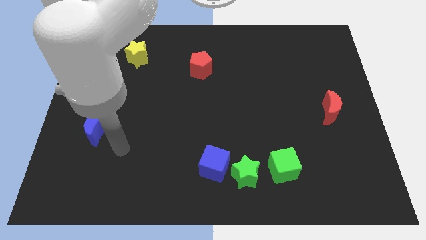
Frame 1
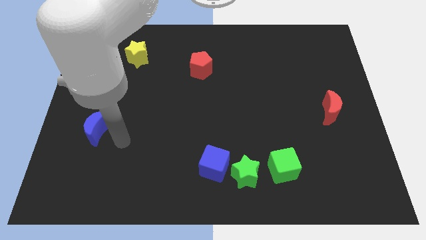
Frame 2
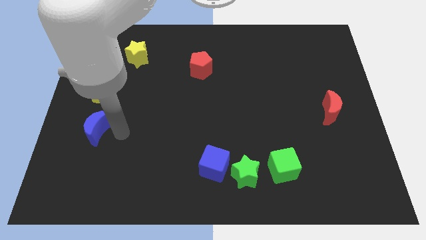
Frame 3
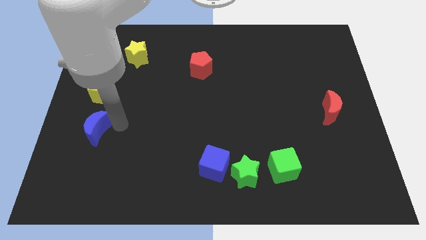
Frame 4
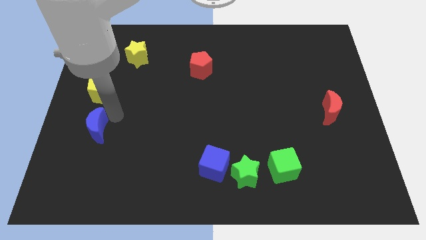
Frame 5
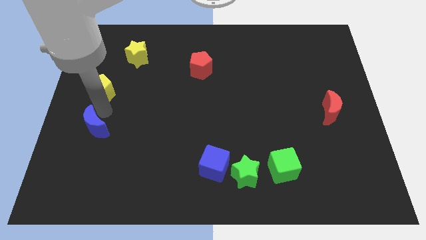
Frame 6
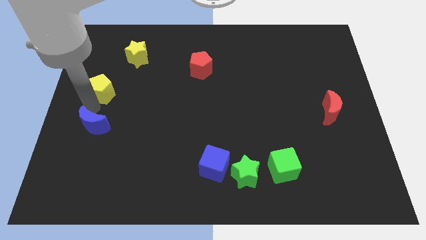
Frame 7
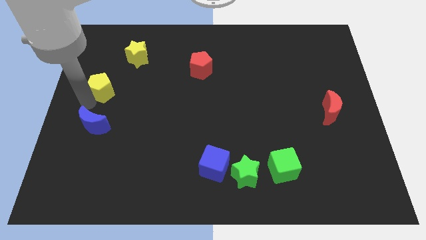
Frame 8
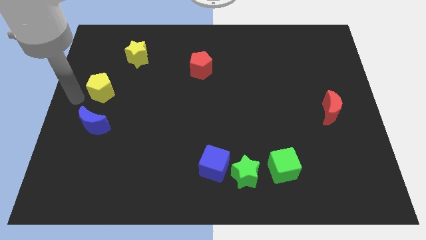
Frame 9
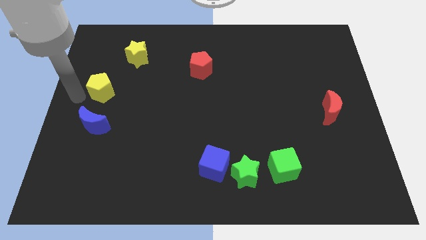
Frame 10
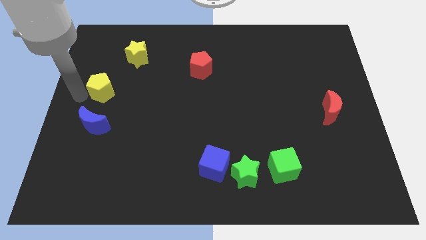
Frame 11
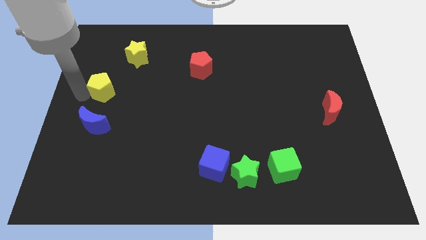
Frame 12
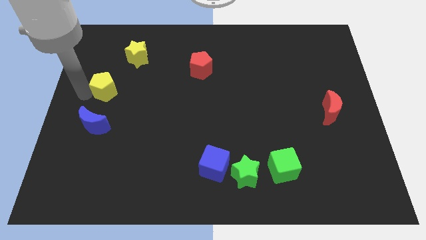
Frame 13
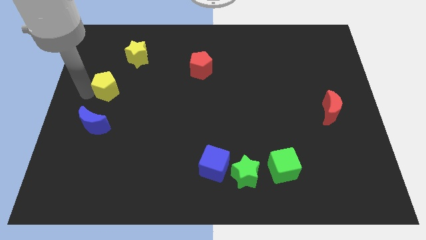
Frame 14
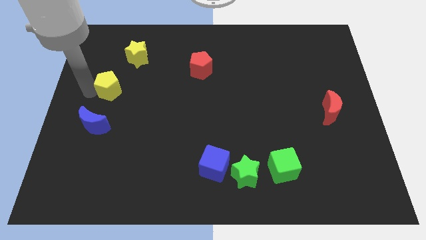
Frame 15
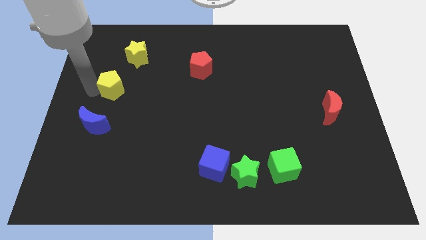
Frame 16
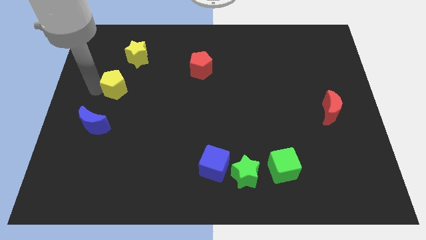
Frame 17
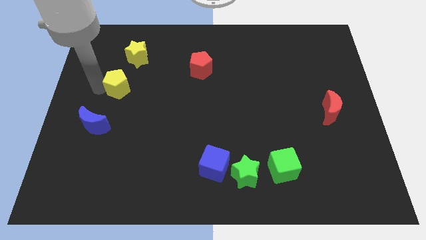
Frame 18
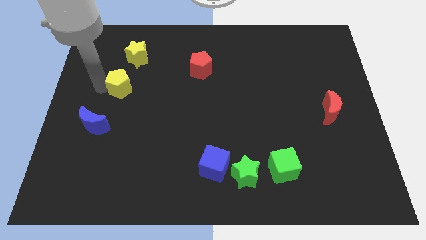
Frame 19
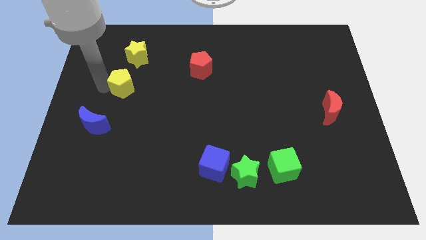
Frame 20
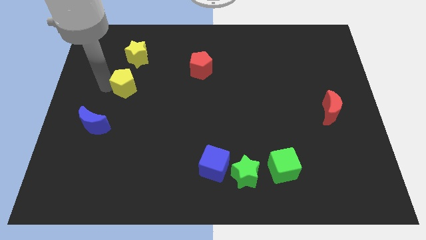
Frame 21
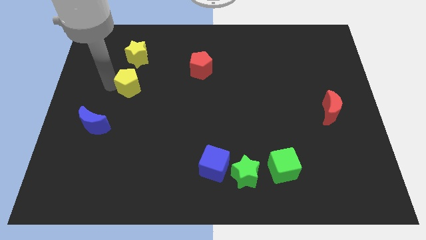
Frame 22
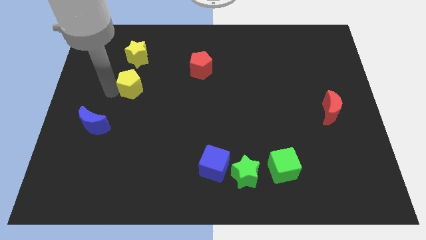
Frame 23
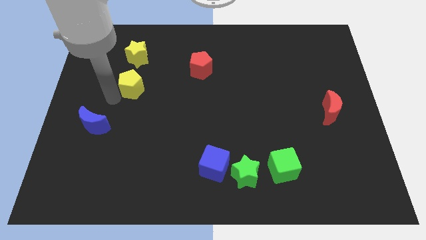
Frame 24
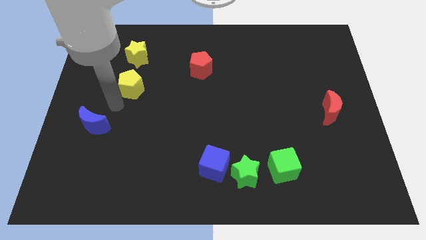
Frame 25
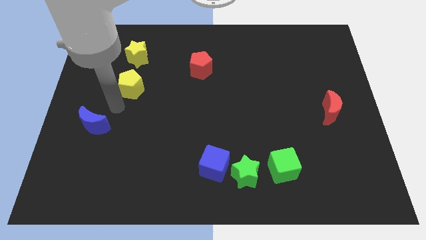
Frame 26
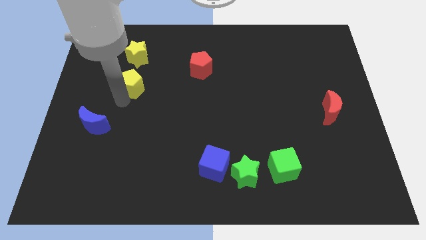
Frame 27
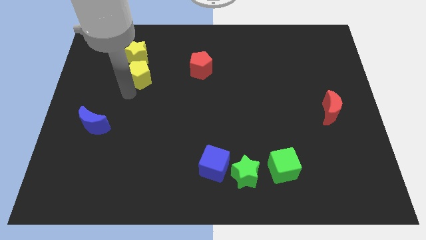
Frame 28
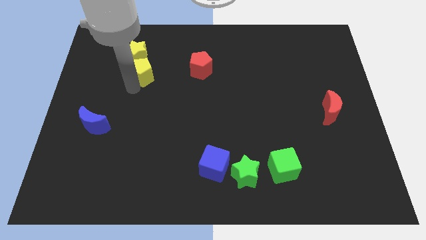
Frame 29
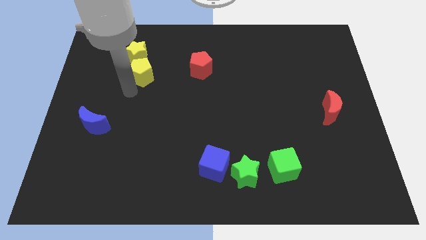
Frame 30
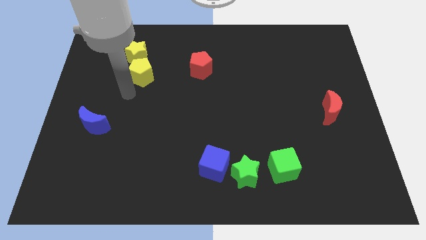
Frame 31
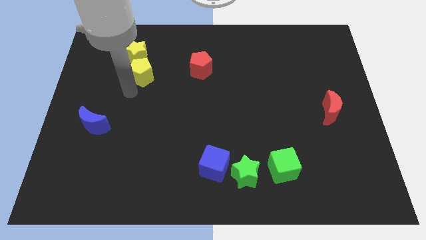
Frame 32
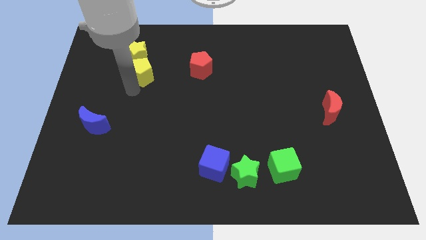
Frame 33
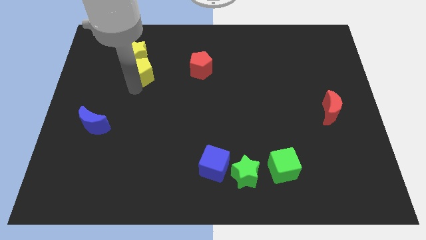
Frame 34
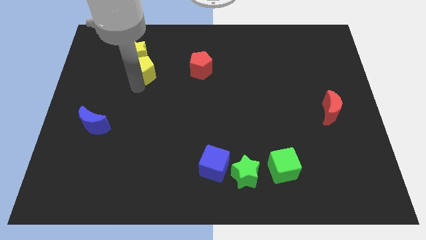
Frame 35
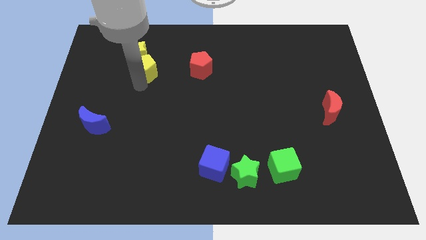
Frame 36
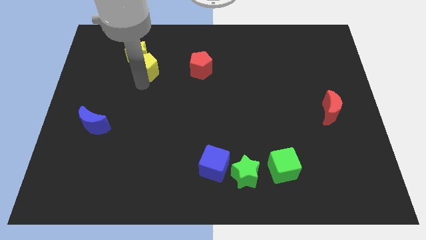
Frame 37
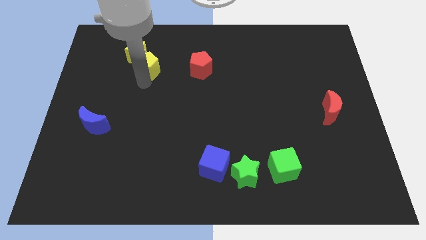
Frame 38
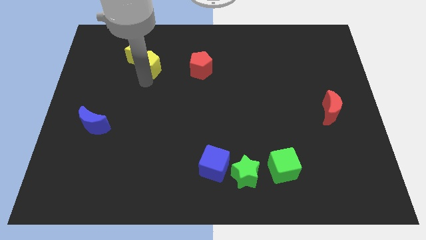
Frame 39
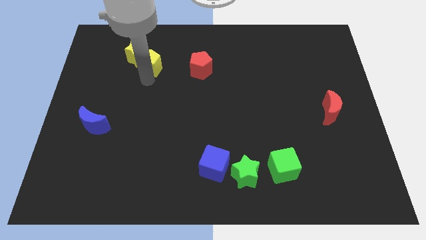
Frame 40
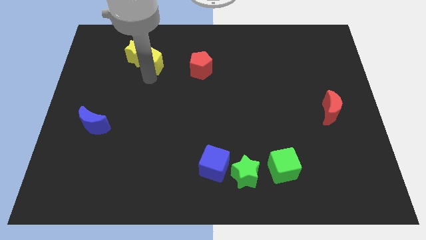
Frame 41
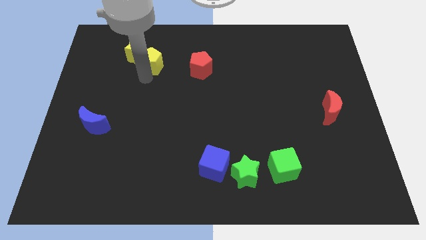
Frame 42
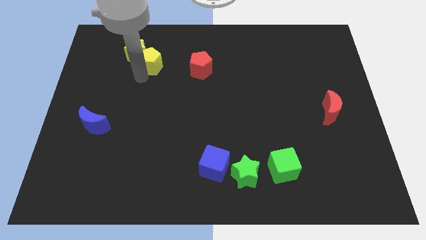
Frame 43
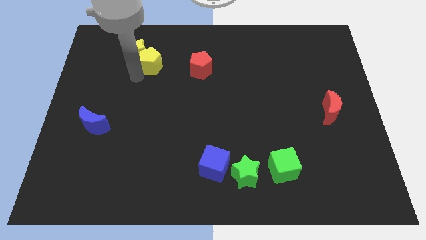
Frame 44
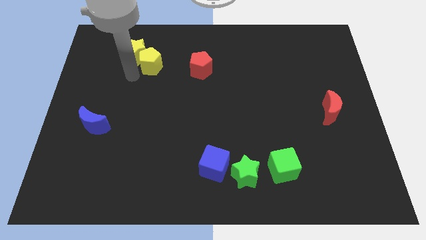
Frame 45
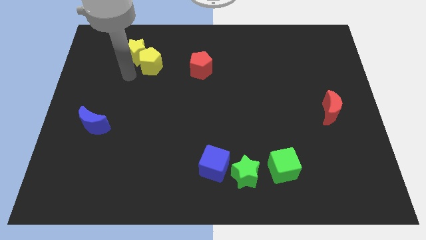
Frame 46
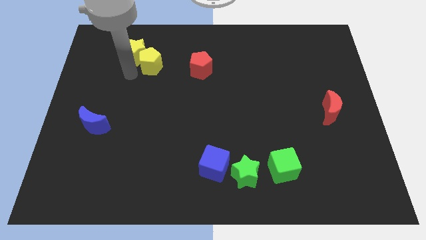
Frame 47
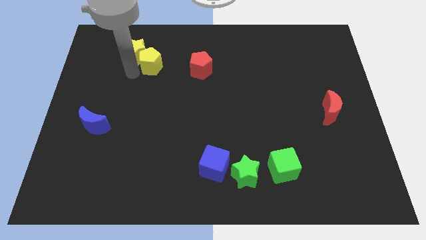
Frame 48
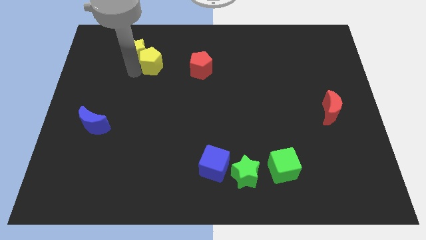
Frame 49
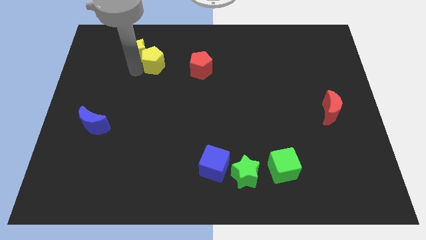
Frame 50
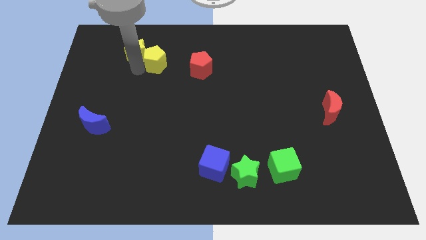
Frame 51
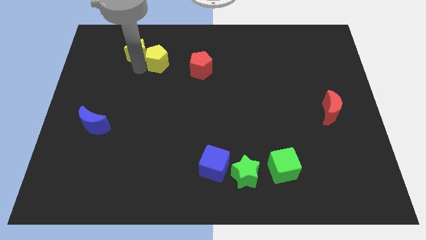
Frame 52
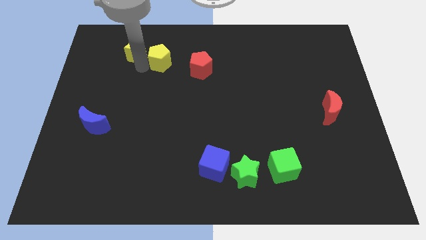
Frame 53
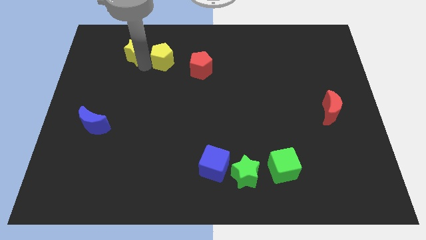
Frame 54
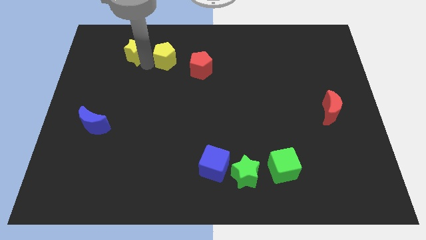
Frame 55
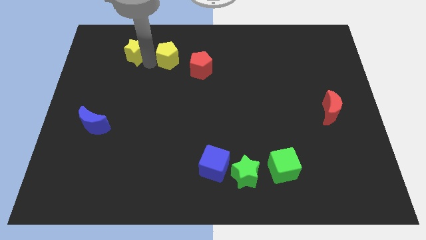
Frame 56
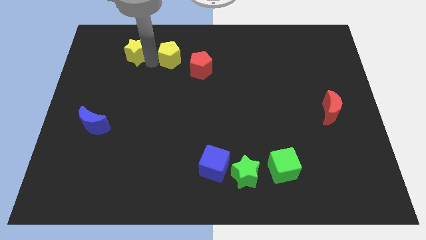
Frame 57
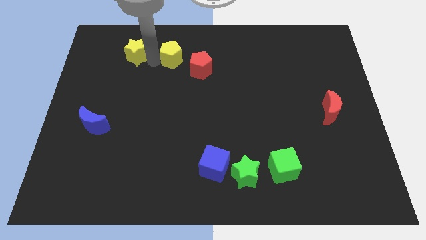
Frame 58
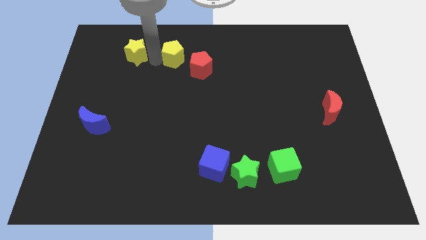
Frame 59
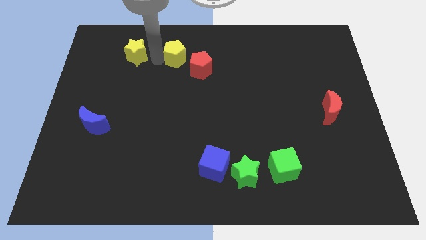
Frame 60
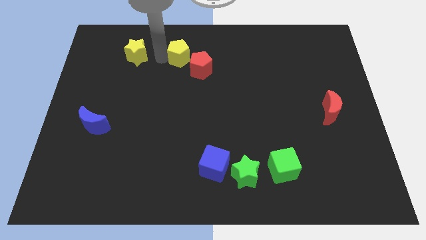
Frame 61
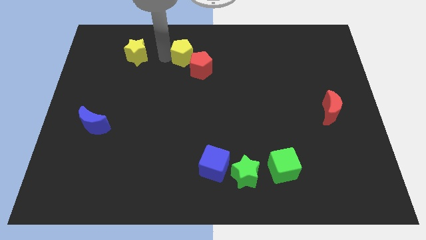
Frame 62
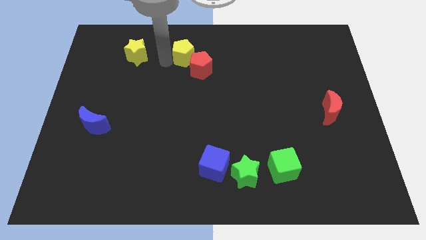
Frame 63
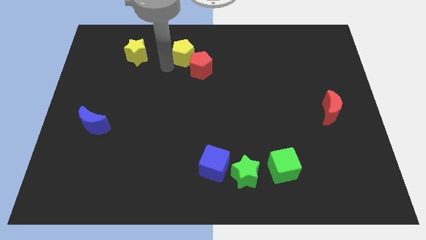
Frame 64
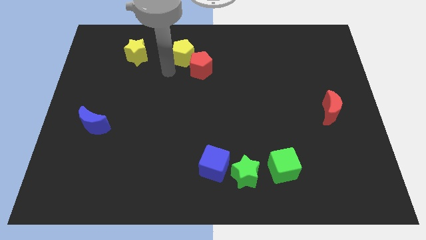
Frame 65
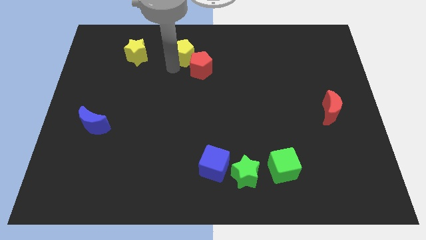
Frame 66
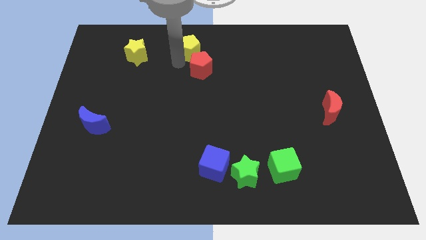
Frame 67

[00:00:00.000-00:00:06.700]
slide the yellow pentagon to the top

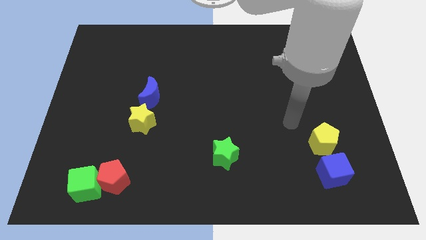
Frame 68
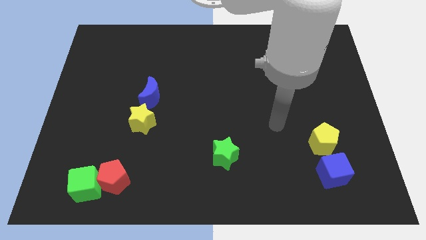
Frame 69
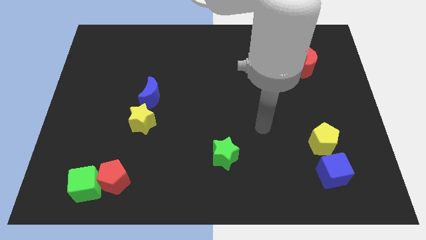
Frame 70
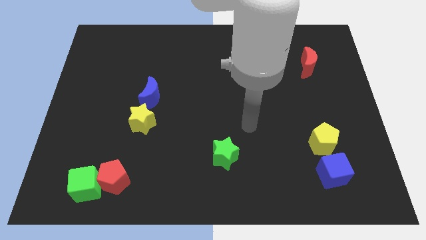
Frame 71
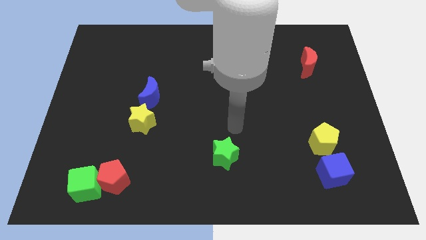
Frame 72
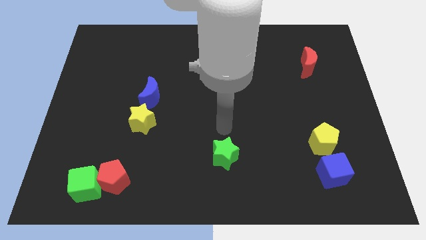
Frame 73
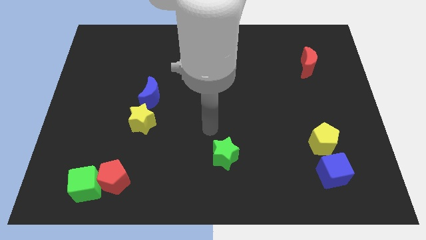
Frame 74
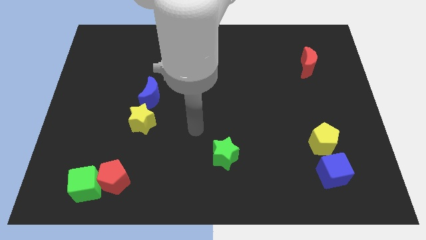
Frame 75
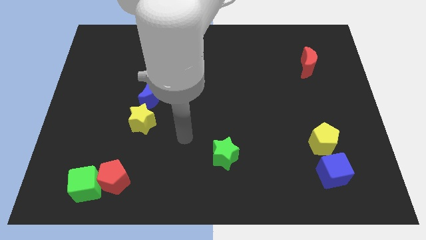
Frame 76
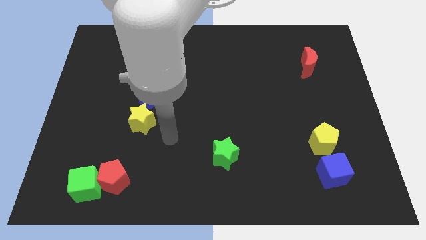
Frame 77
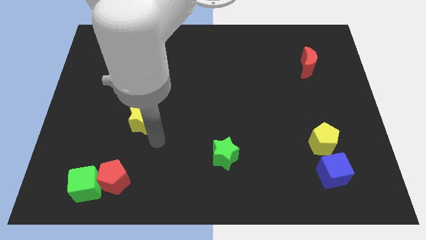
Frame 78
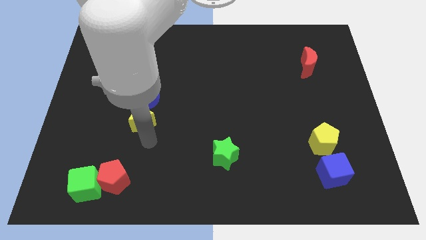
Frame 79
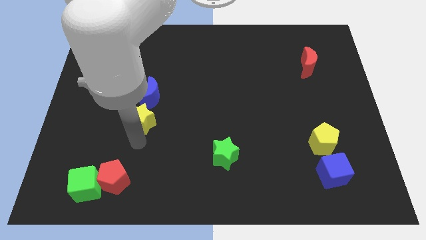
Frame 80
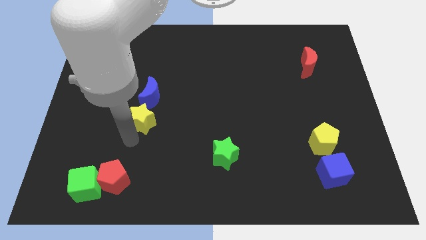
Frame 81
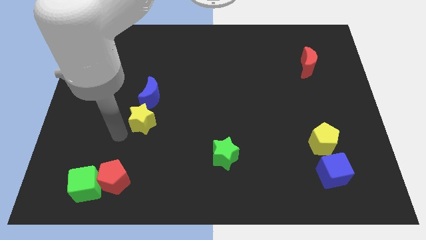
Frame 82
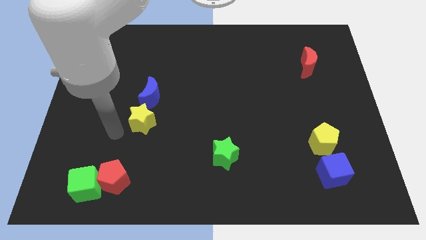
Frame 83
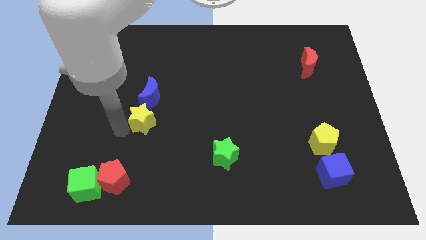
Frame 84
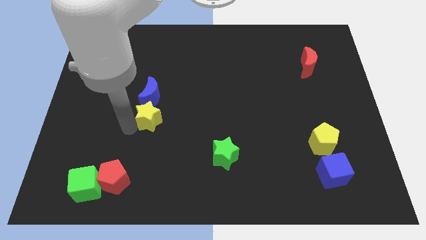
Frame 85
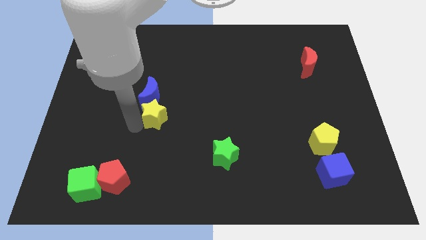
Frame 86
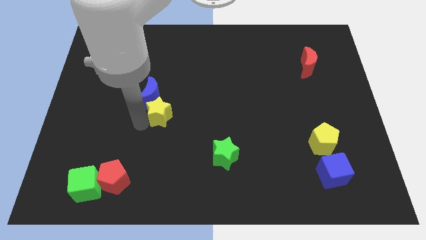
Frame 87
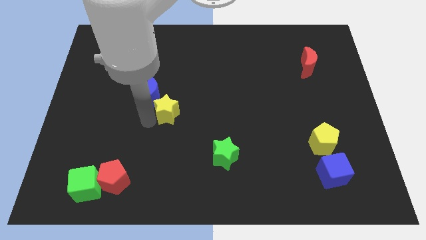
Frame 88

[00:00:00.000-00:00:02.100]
slide the yellow star to the middle
